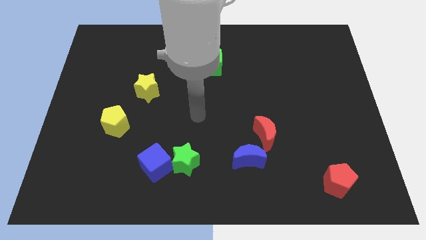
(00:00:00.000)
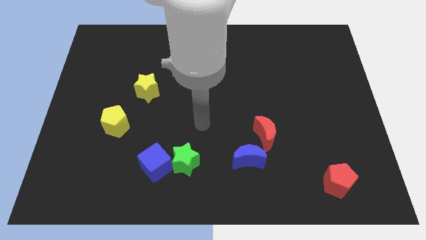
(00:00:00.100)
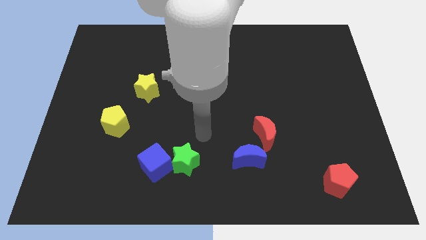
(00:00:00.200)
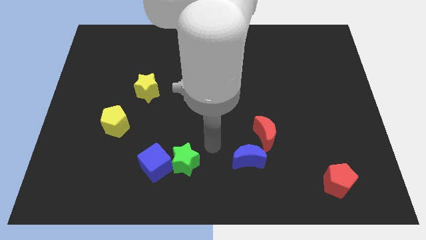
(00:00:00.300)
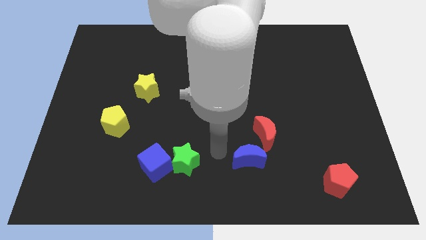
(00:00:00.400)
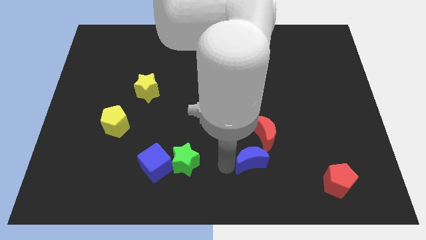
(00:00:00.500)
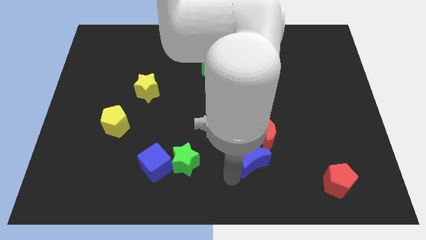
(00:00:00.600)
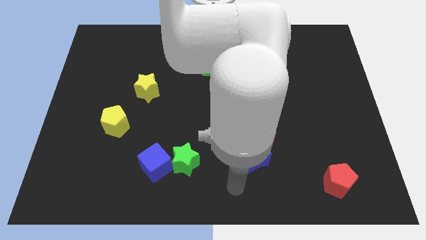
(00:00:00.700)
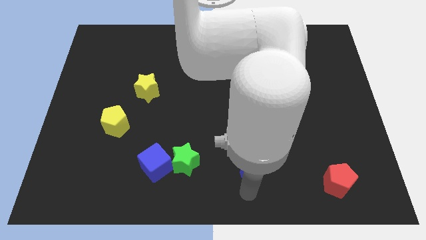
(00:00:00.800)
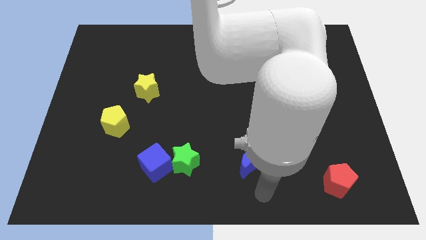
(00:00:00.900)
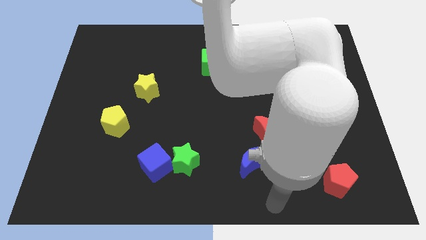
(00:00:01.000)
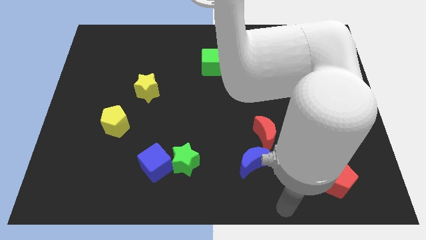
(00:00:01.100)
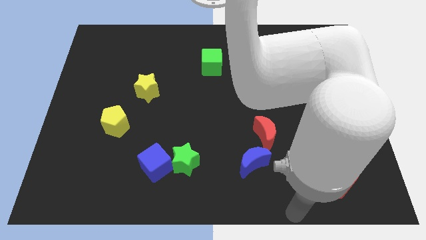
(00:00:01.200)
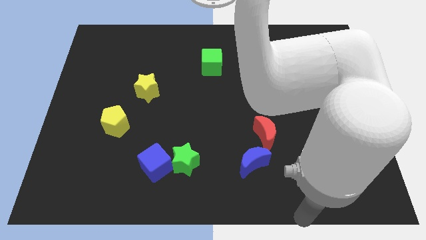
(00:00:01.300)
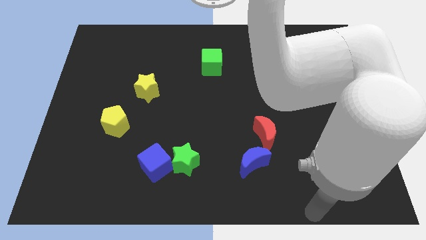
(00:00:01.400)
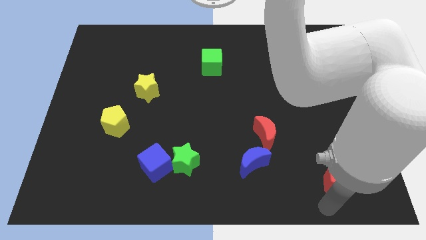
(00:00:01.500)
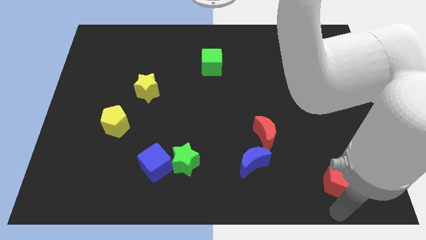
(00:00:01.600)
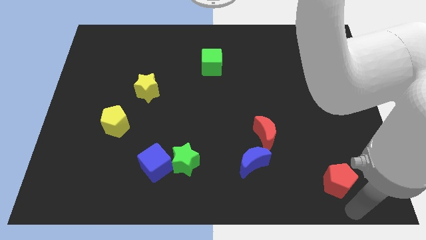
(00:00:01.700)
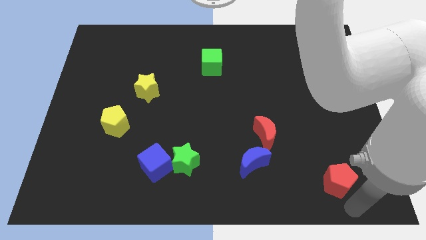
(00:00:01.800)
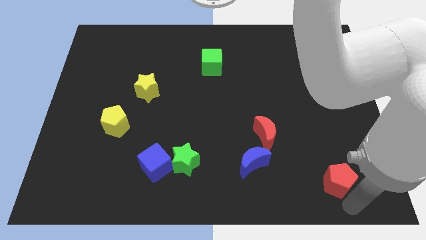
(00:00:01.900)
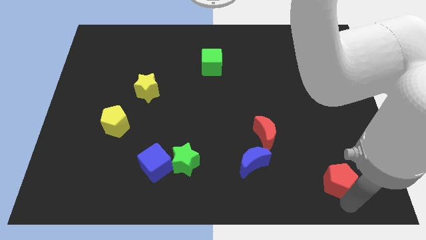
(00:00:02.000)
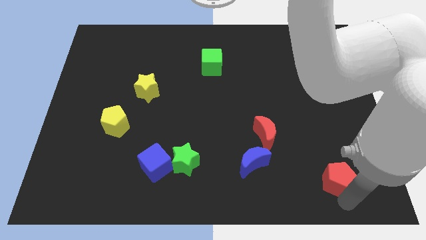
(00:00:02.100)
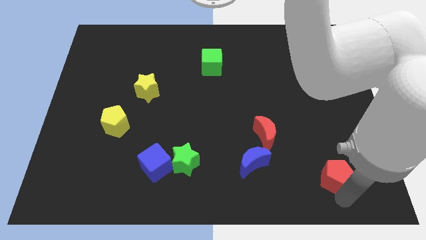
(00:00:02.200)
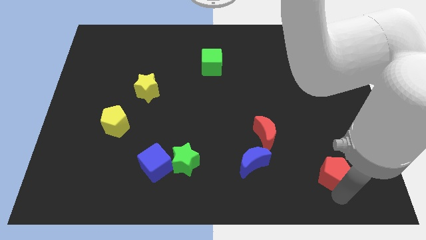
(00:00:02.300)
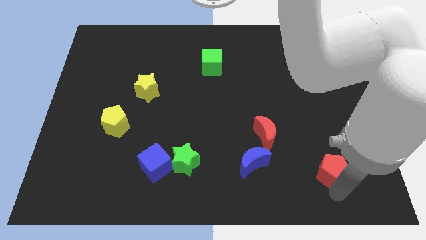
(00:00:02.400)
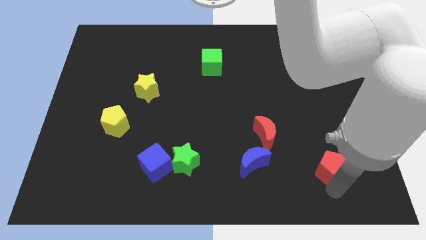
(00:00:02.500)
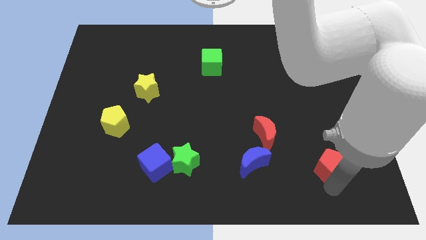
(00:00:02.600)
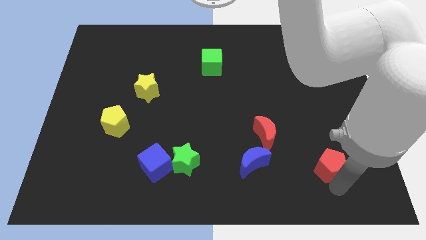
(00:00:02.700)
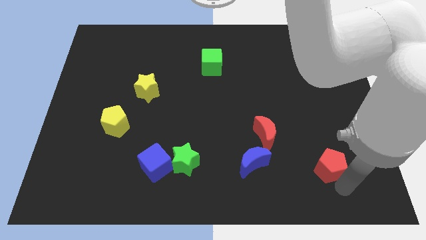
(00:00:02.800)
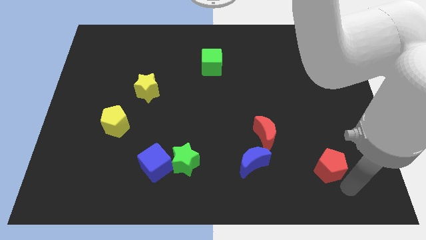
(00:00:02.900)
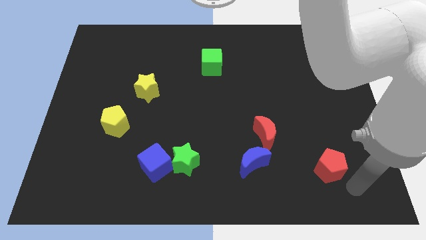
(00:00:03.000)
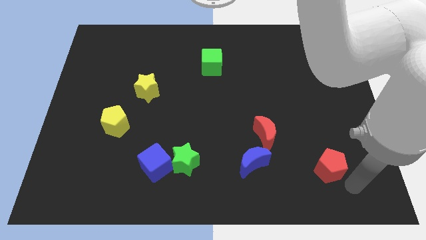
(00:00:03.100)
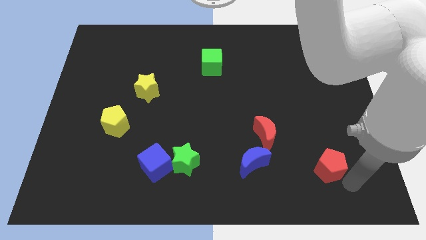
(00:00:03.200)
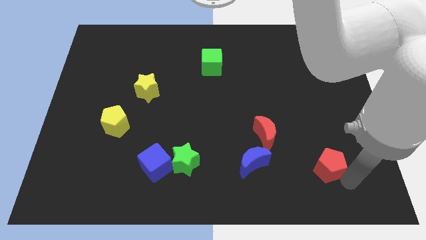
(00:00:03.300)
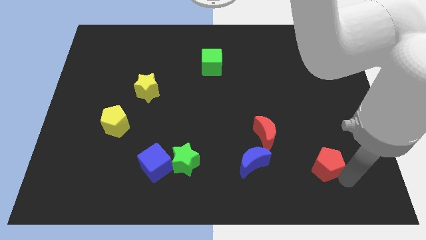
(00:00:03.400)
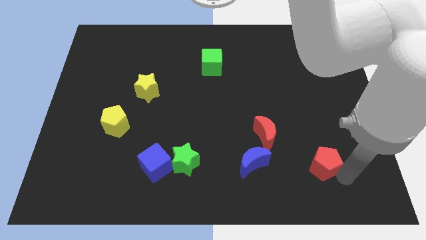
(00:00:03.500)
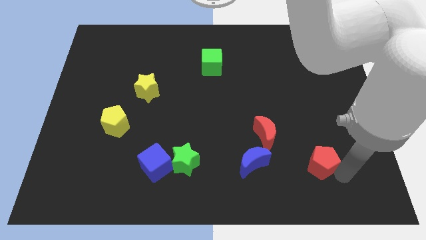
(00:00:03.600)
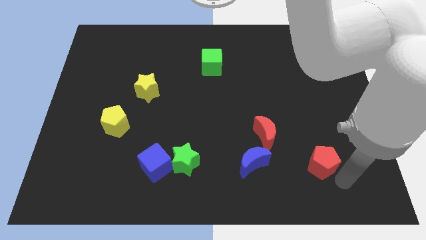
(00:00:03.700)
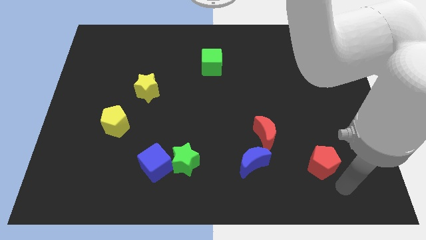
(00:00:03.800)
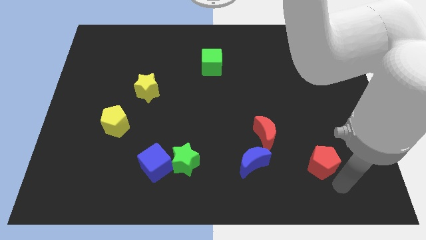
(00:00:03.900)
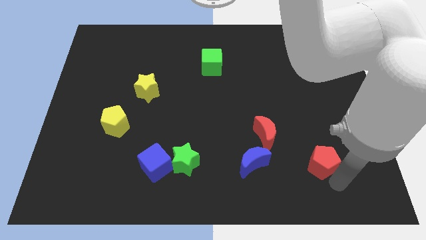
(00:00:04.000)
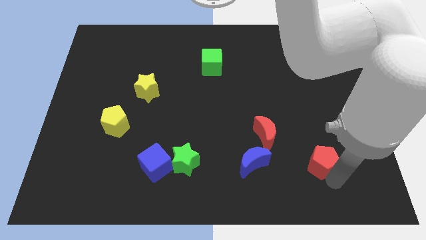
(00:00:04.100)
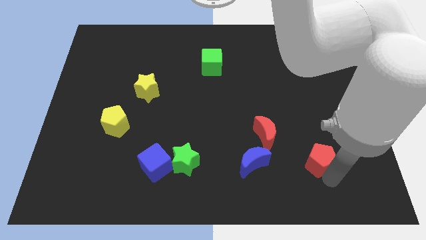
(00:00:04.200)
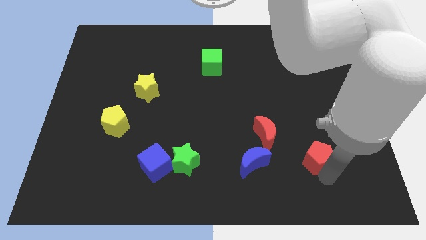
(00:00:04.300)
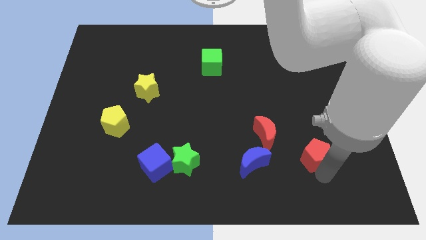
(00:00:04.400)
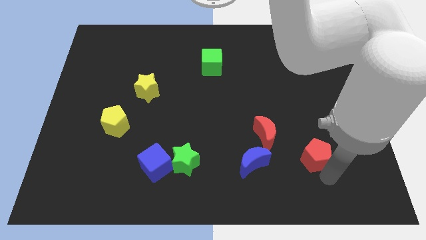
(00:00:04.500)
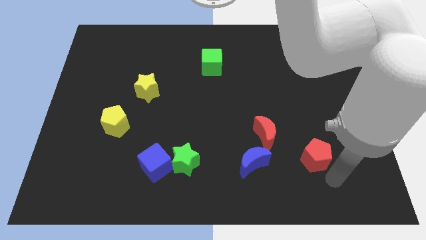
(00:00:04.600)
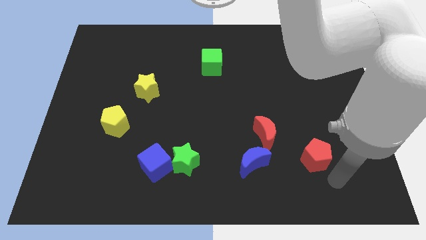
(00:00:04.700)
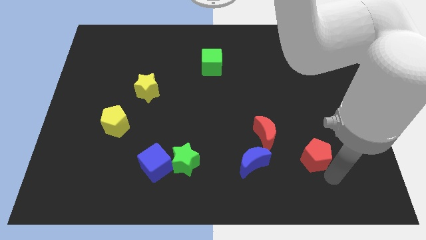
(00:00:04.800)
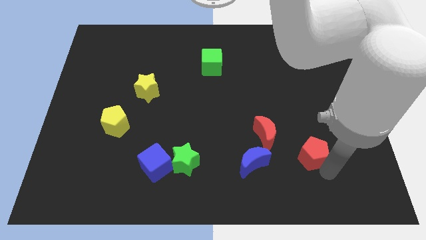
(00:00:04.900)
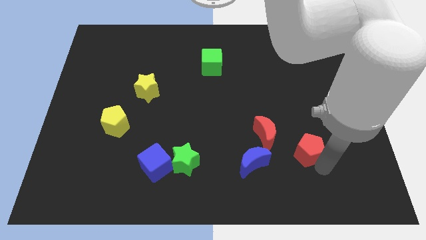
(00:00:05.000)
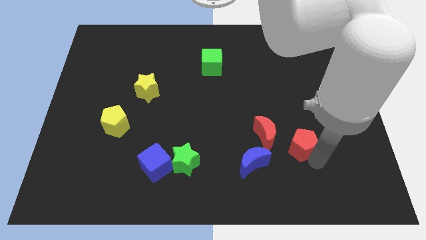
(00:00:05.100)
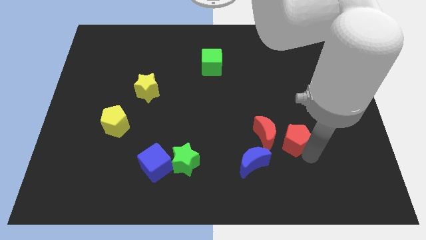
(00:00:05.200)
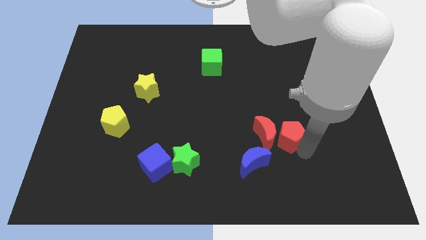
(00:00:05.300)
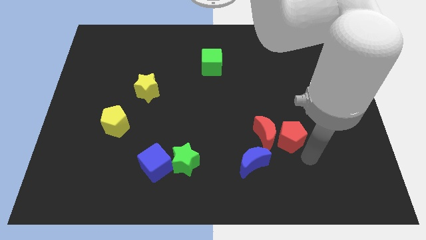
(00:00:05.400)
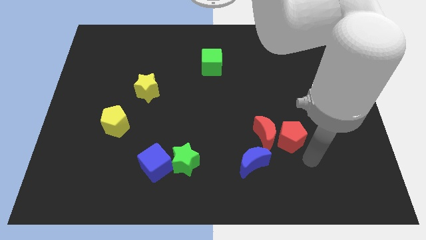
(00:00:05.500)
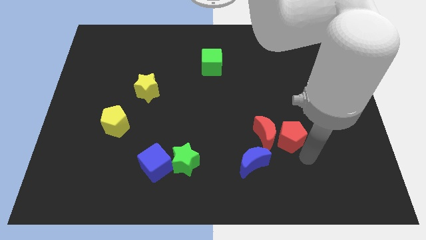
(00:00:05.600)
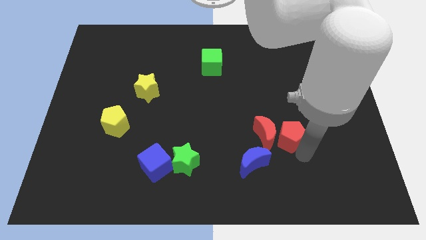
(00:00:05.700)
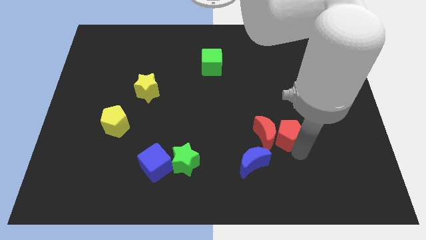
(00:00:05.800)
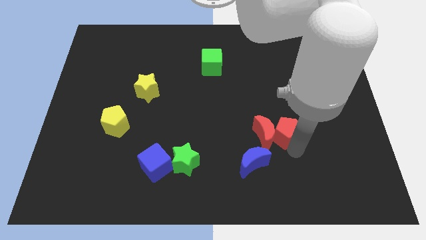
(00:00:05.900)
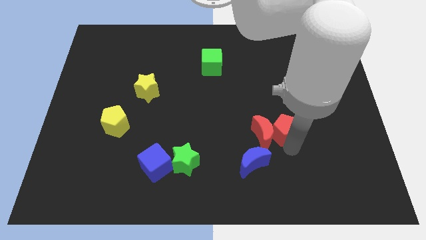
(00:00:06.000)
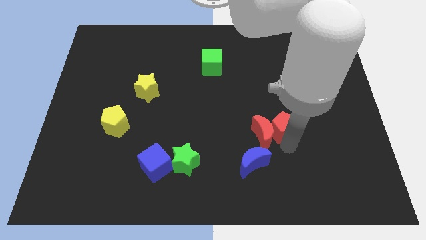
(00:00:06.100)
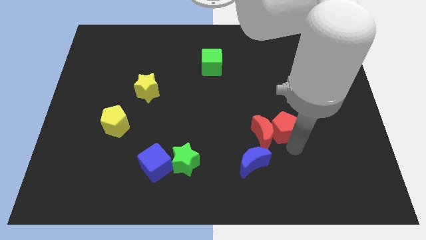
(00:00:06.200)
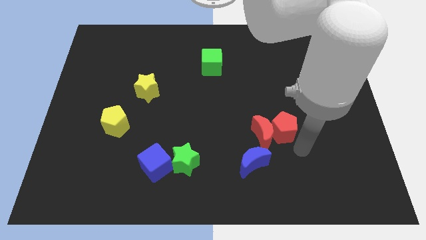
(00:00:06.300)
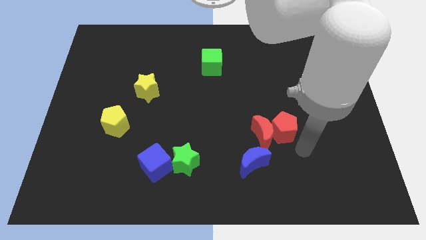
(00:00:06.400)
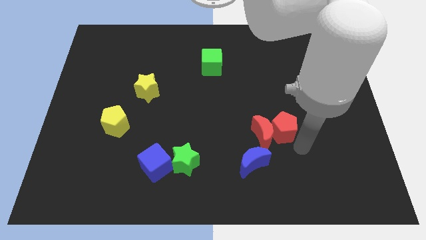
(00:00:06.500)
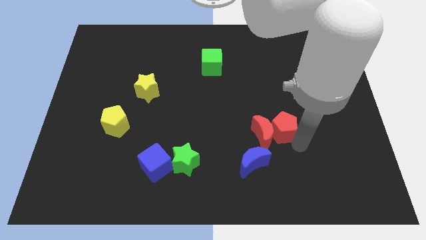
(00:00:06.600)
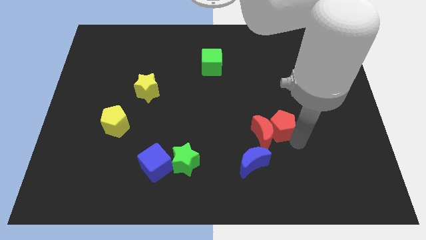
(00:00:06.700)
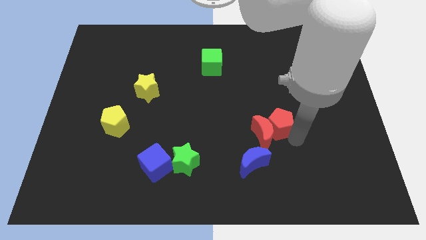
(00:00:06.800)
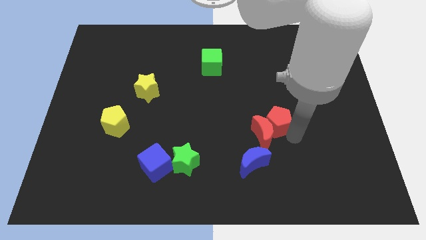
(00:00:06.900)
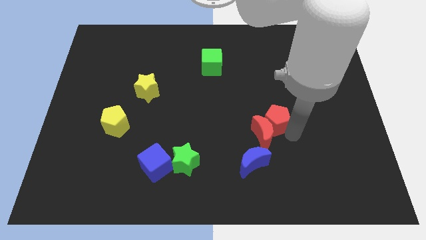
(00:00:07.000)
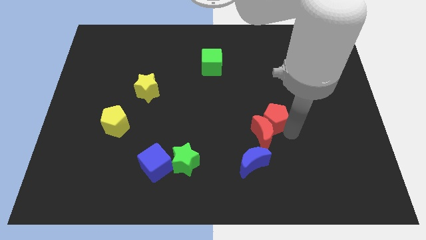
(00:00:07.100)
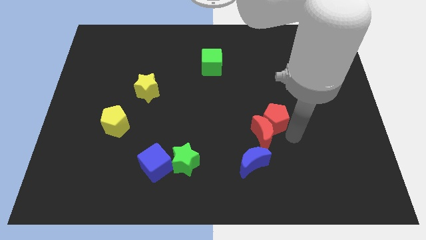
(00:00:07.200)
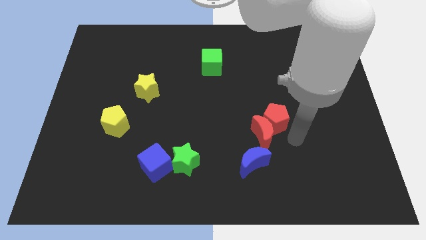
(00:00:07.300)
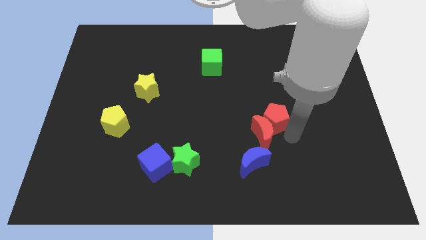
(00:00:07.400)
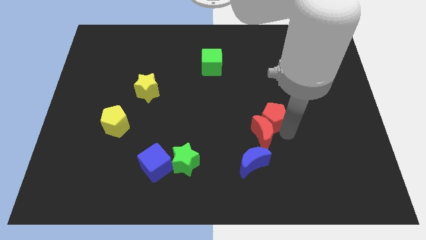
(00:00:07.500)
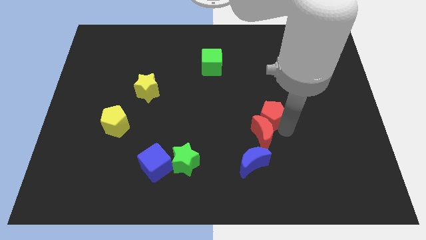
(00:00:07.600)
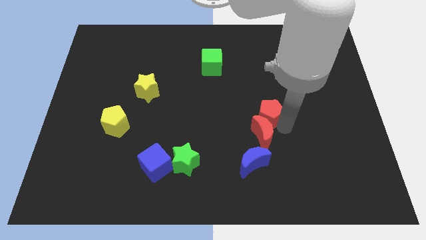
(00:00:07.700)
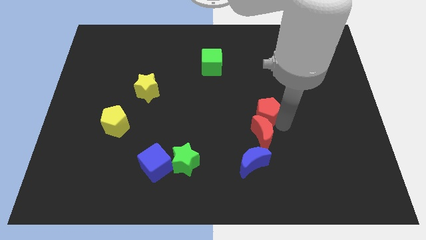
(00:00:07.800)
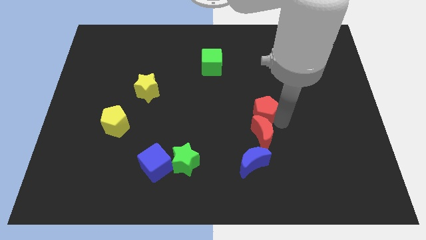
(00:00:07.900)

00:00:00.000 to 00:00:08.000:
put the red pentagon to the center
